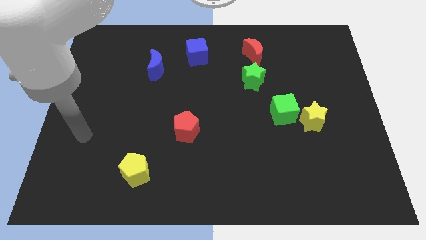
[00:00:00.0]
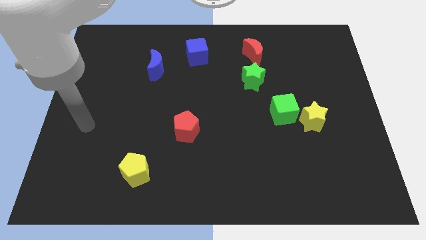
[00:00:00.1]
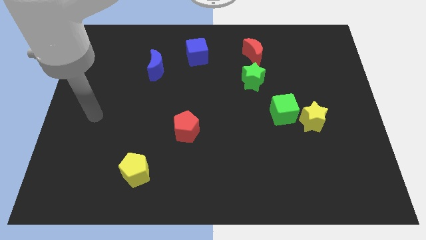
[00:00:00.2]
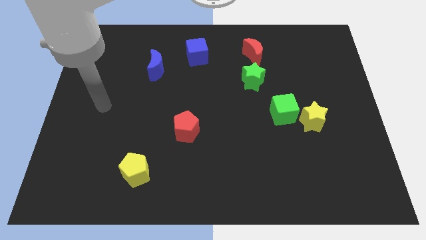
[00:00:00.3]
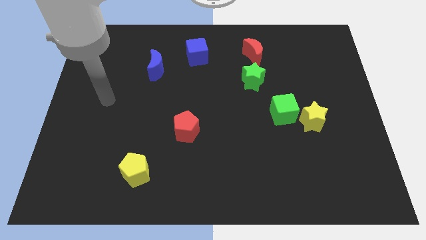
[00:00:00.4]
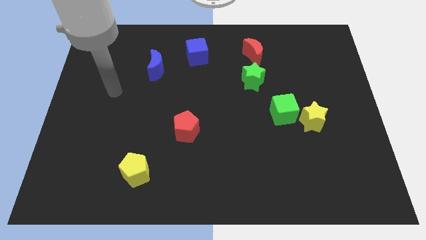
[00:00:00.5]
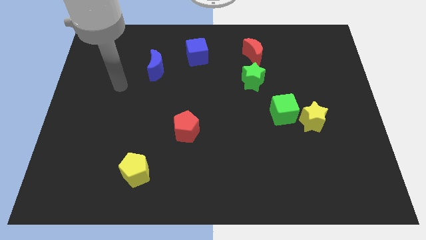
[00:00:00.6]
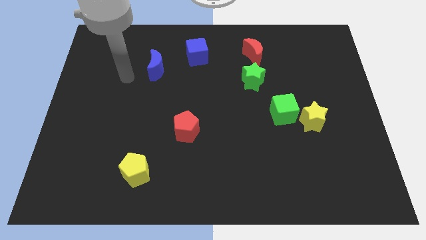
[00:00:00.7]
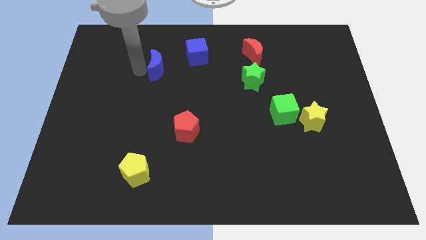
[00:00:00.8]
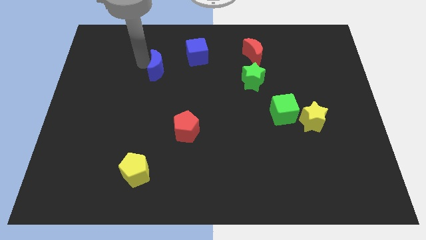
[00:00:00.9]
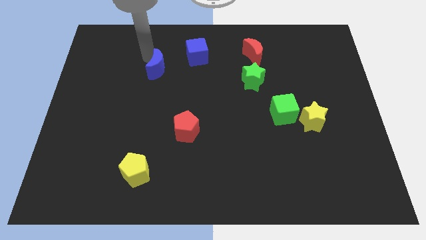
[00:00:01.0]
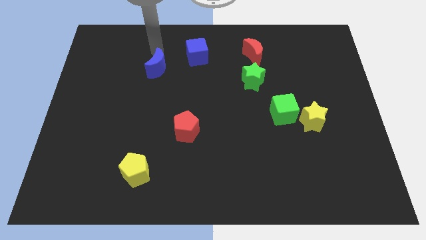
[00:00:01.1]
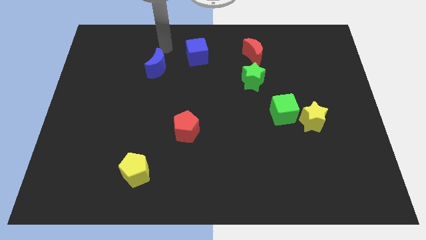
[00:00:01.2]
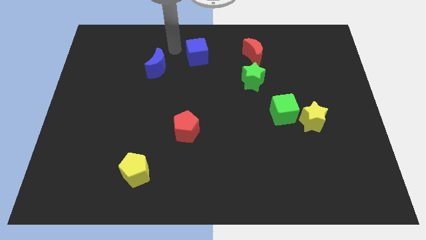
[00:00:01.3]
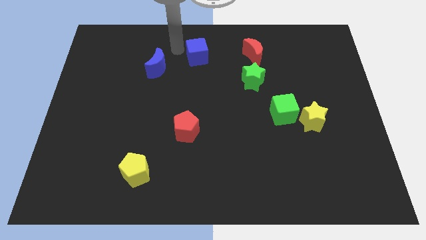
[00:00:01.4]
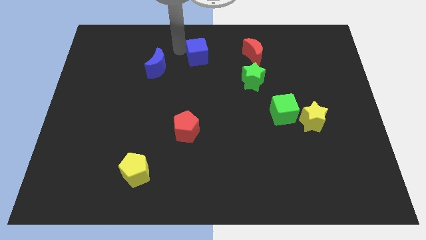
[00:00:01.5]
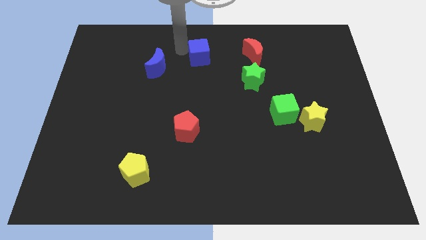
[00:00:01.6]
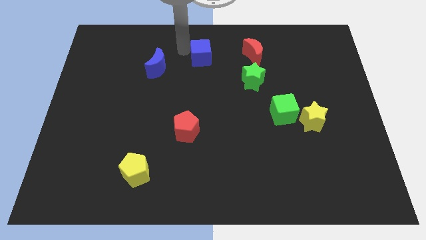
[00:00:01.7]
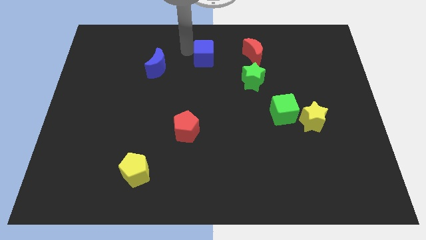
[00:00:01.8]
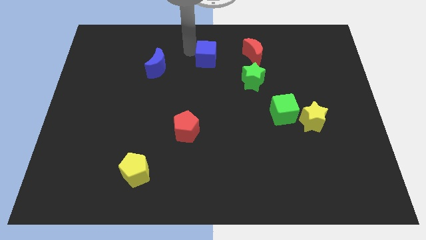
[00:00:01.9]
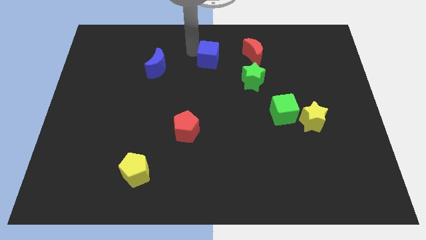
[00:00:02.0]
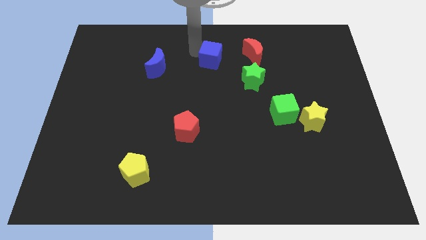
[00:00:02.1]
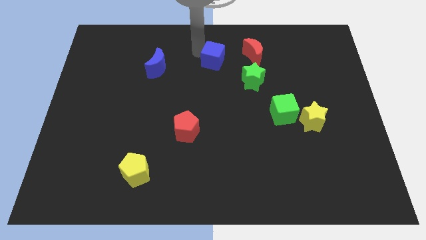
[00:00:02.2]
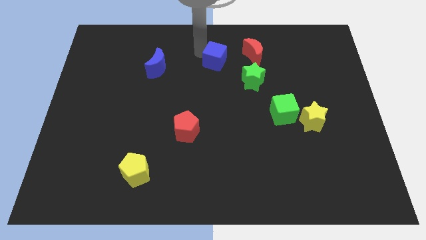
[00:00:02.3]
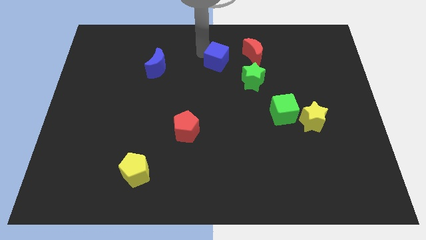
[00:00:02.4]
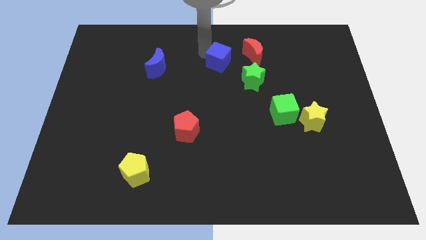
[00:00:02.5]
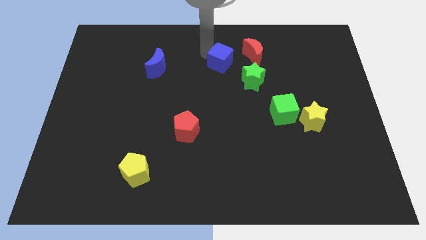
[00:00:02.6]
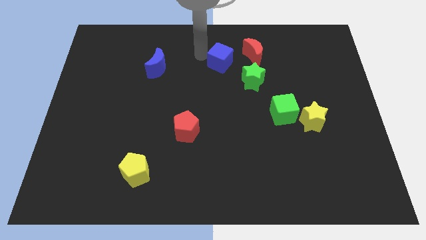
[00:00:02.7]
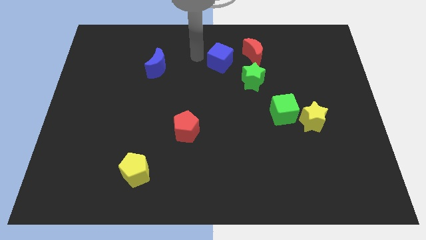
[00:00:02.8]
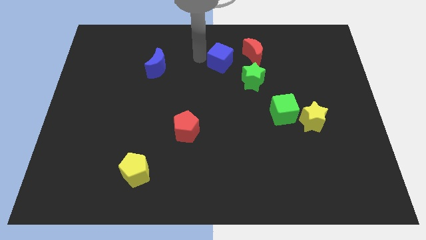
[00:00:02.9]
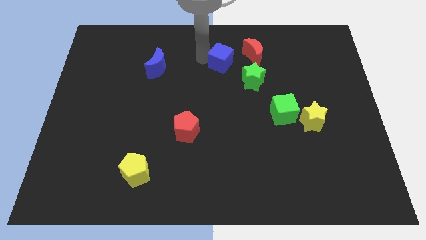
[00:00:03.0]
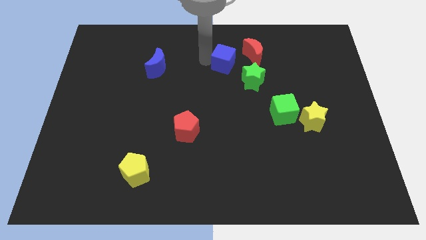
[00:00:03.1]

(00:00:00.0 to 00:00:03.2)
slide the blue cube somewhat to the right

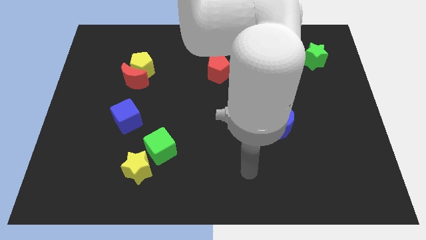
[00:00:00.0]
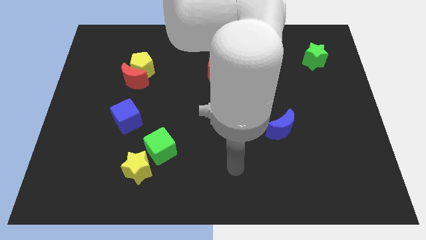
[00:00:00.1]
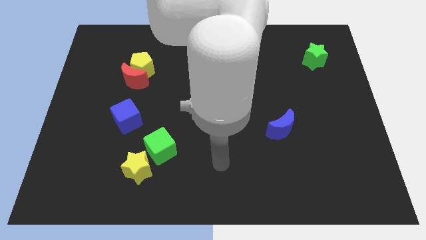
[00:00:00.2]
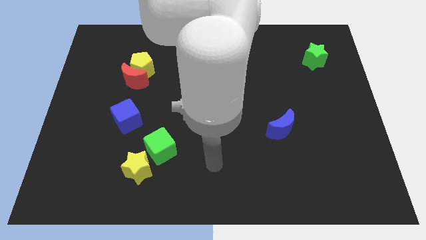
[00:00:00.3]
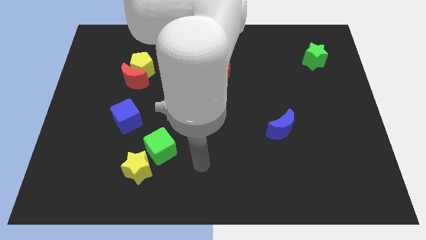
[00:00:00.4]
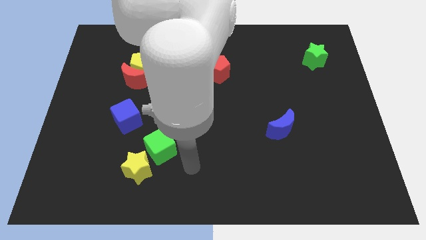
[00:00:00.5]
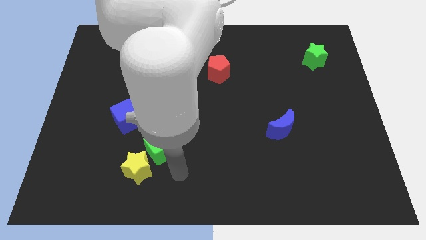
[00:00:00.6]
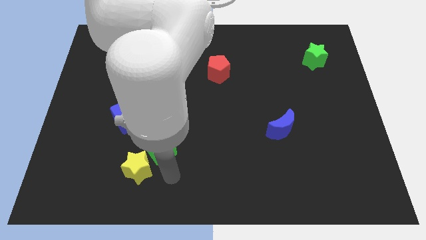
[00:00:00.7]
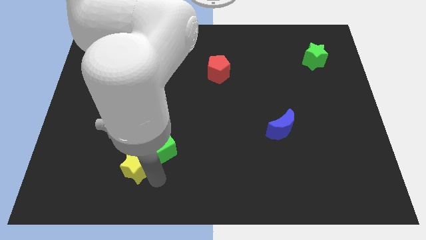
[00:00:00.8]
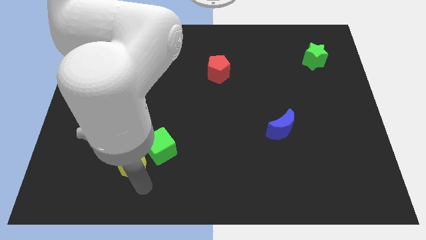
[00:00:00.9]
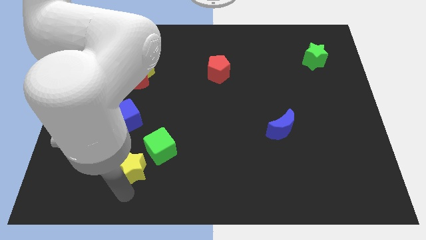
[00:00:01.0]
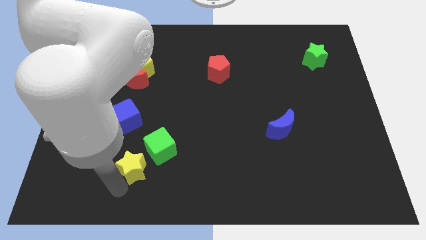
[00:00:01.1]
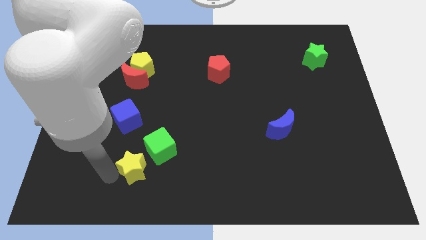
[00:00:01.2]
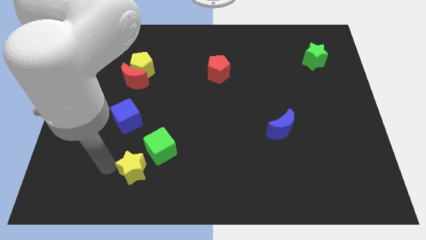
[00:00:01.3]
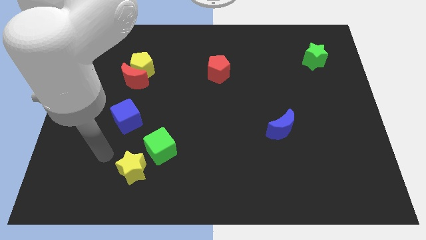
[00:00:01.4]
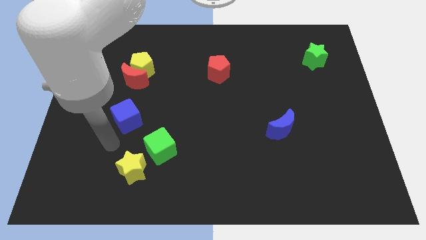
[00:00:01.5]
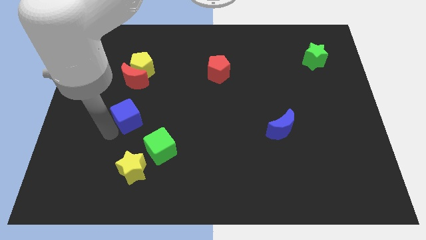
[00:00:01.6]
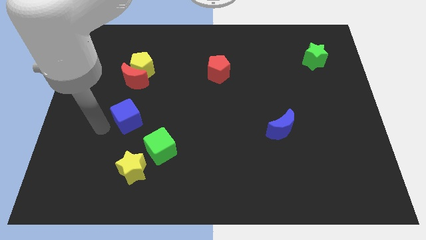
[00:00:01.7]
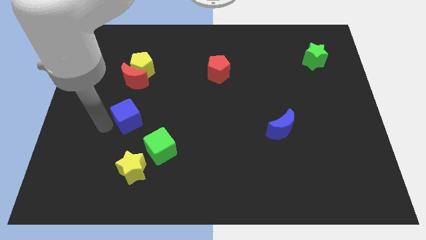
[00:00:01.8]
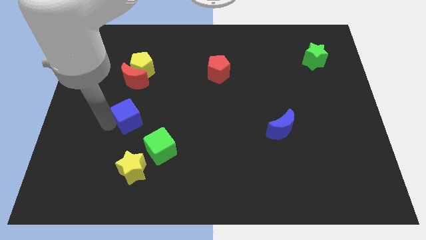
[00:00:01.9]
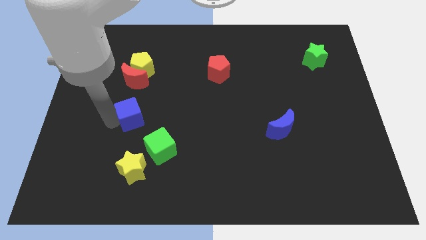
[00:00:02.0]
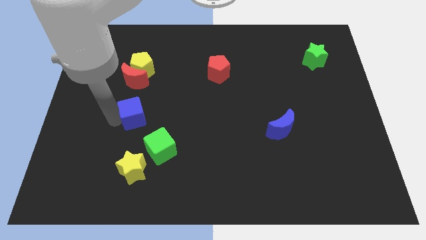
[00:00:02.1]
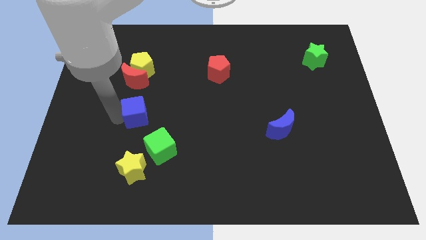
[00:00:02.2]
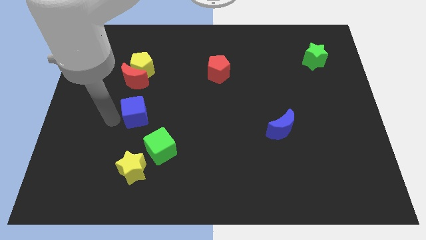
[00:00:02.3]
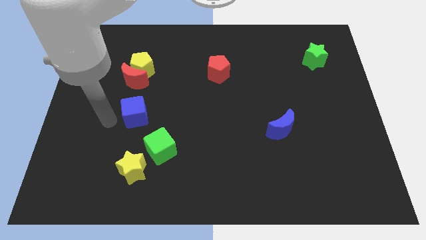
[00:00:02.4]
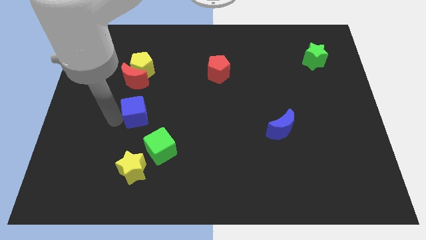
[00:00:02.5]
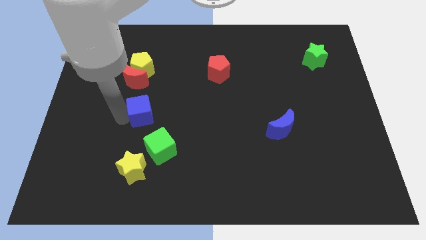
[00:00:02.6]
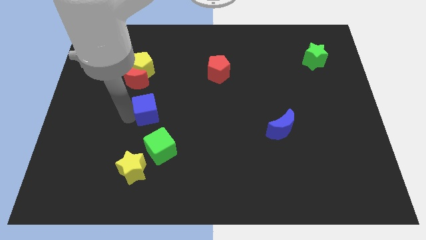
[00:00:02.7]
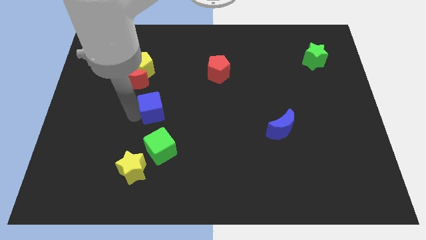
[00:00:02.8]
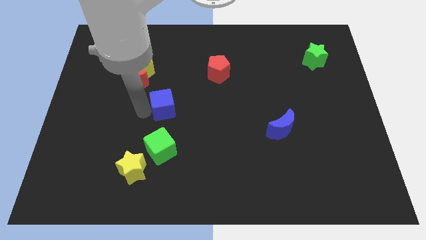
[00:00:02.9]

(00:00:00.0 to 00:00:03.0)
slightly slide the blue cube to the right

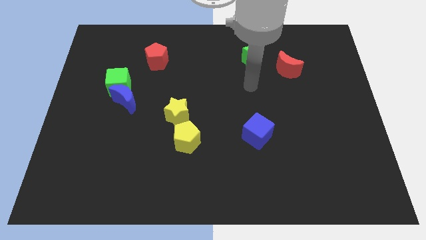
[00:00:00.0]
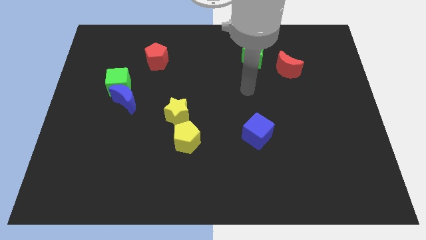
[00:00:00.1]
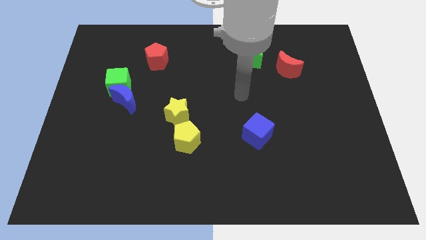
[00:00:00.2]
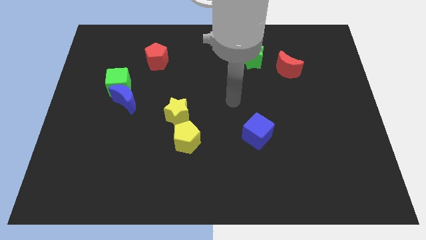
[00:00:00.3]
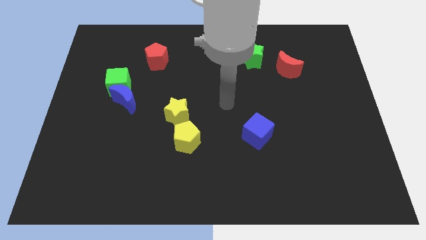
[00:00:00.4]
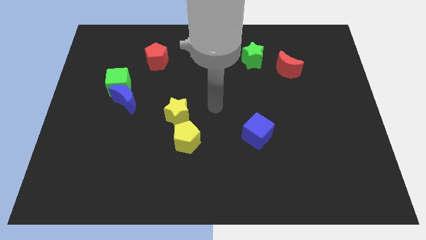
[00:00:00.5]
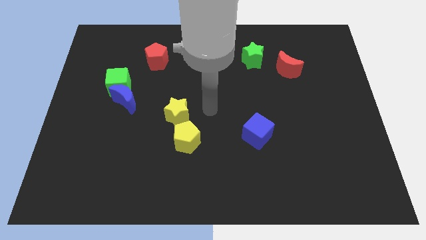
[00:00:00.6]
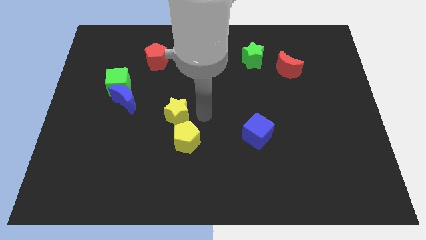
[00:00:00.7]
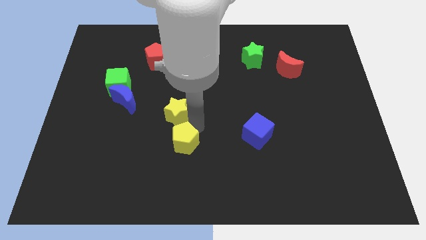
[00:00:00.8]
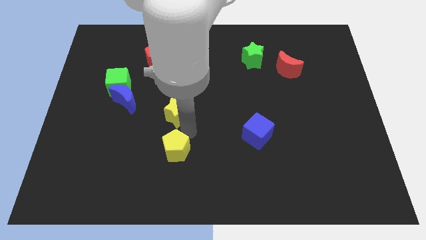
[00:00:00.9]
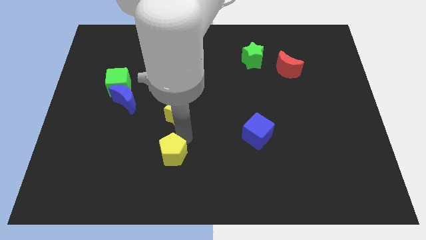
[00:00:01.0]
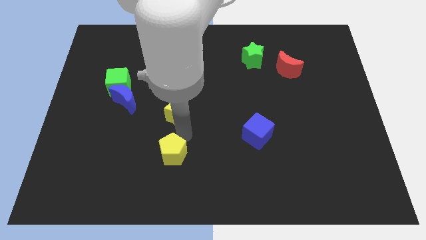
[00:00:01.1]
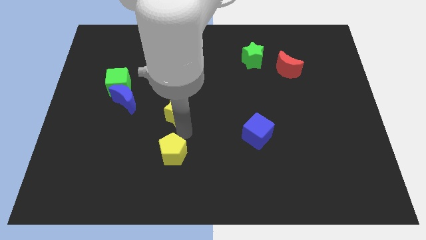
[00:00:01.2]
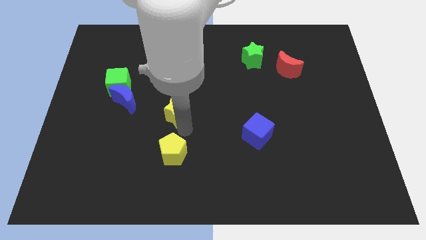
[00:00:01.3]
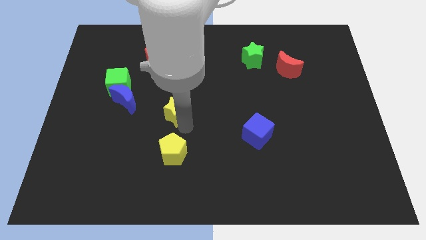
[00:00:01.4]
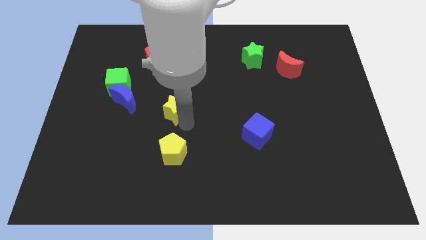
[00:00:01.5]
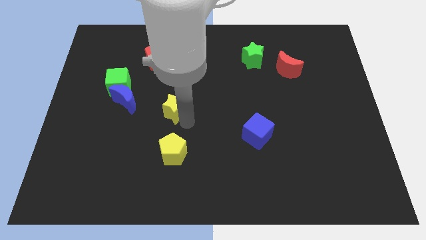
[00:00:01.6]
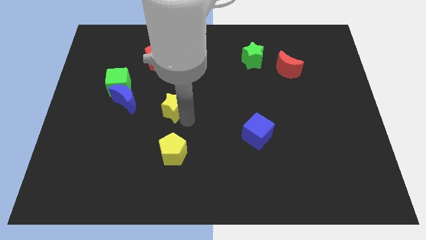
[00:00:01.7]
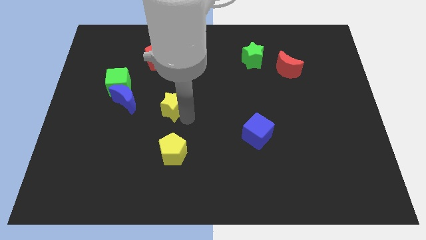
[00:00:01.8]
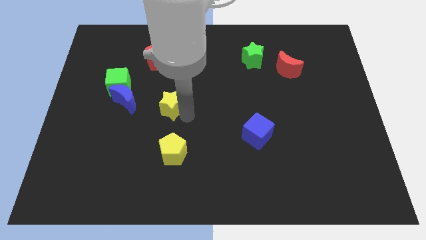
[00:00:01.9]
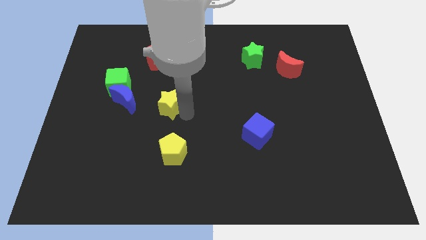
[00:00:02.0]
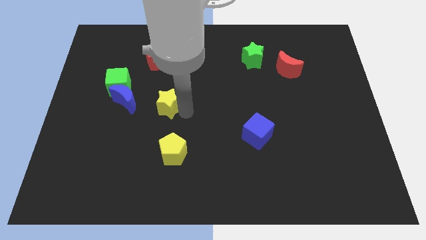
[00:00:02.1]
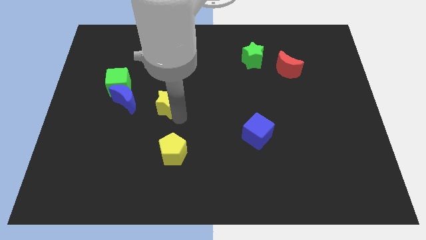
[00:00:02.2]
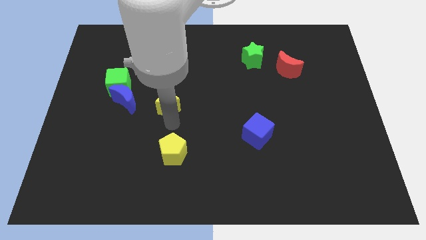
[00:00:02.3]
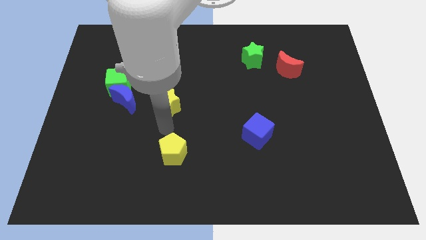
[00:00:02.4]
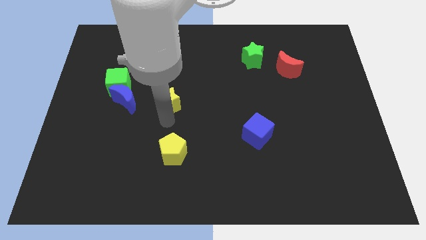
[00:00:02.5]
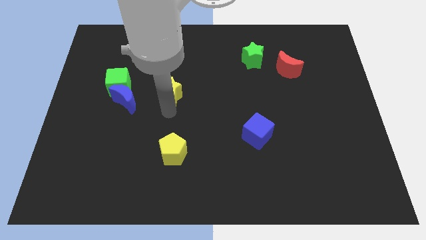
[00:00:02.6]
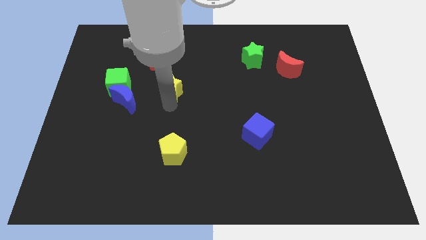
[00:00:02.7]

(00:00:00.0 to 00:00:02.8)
push the yellow star a little bit upwards
